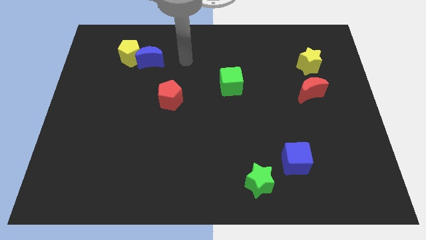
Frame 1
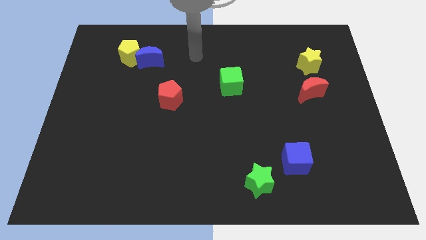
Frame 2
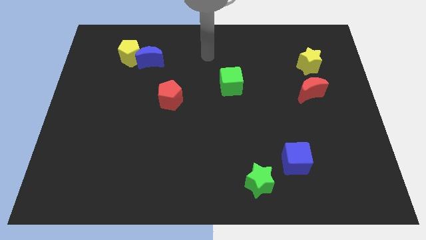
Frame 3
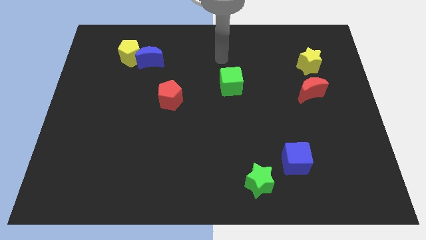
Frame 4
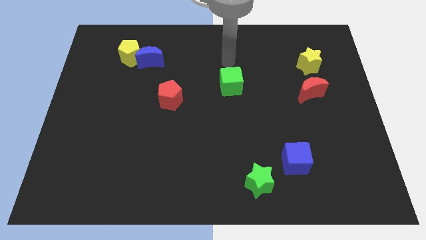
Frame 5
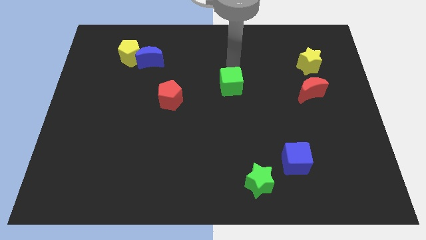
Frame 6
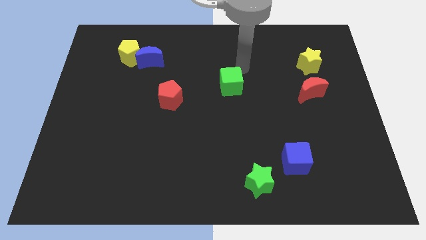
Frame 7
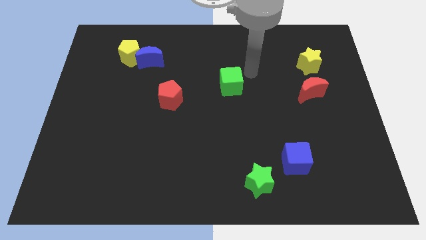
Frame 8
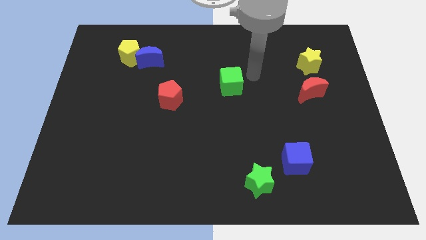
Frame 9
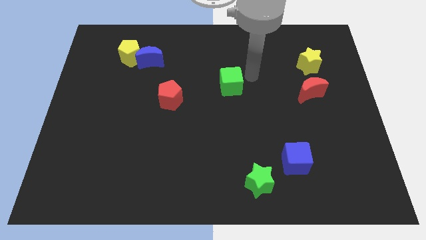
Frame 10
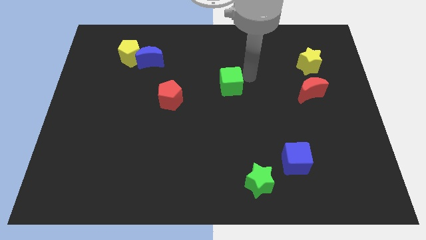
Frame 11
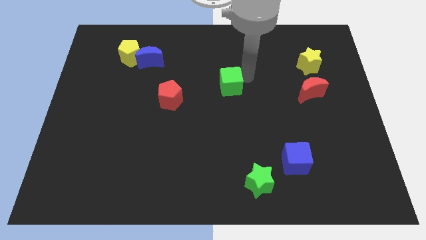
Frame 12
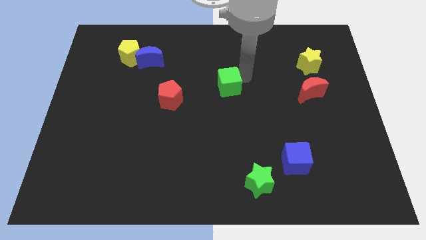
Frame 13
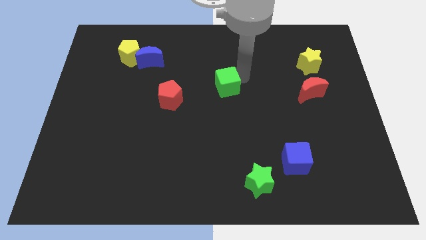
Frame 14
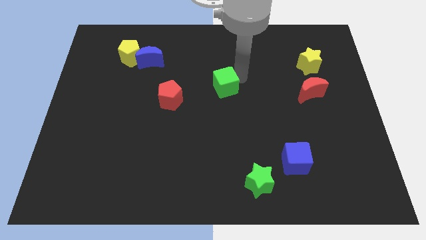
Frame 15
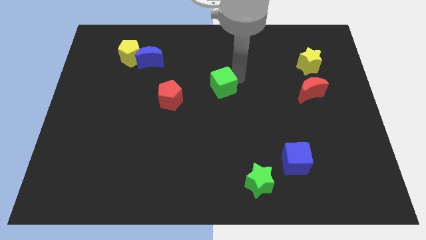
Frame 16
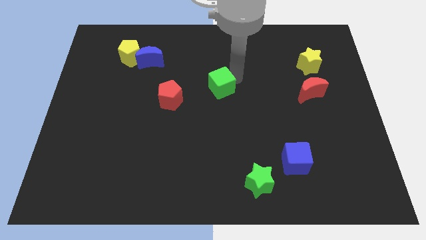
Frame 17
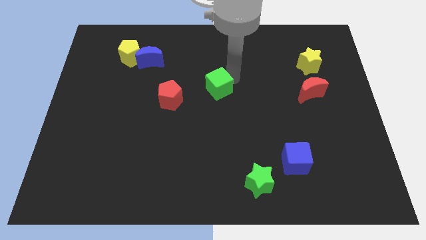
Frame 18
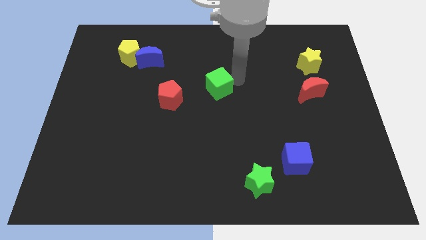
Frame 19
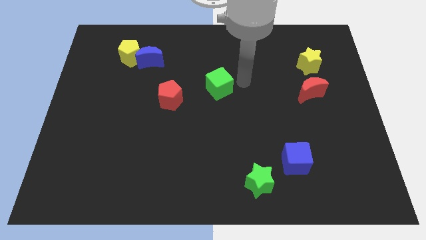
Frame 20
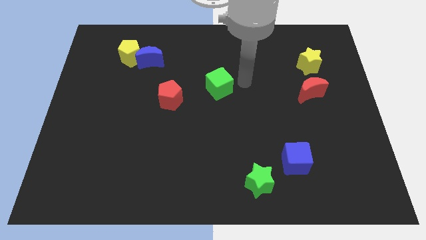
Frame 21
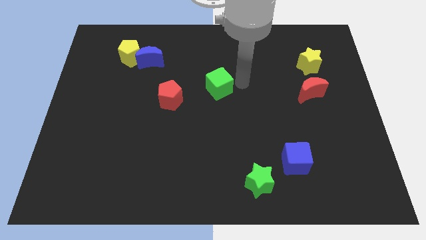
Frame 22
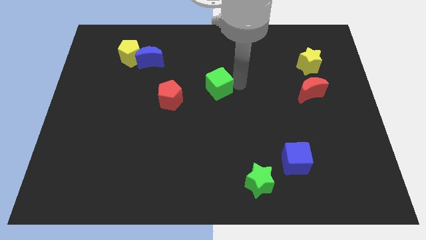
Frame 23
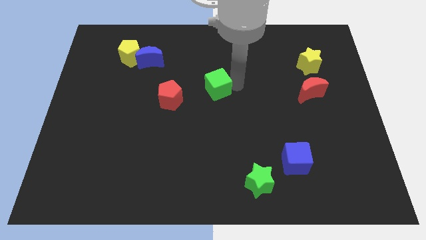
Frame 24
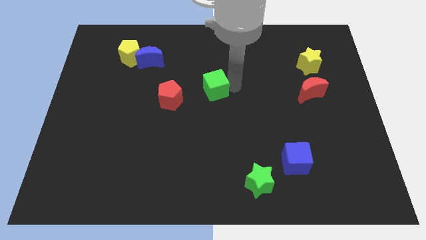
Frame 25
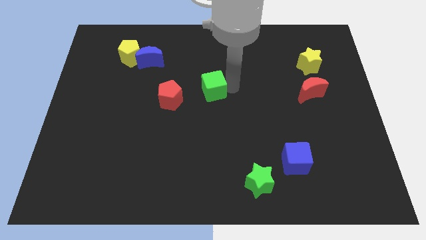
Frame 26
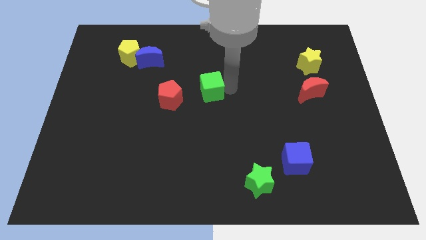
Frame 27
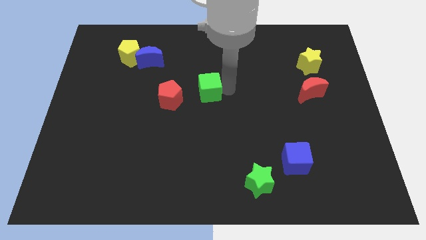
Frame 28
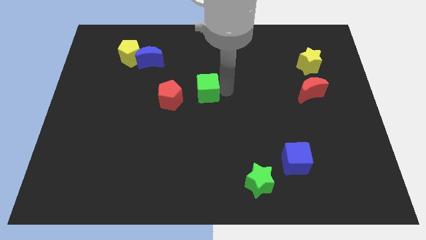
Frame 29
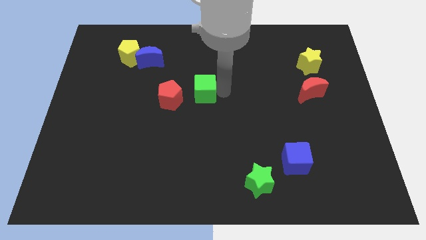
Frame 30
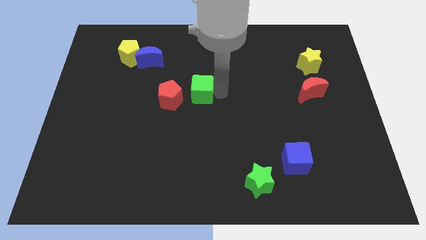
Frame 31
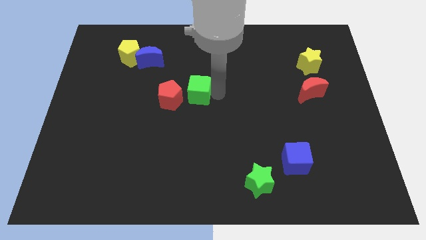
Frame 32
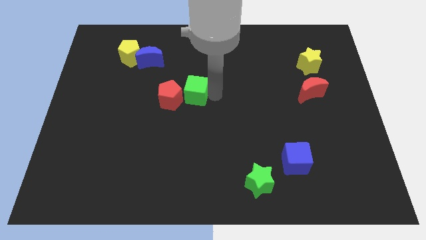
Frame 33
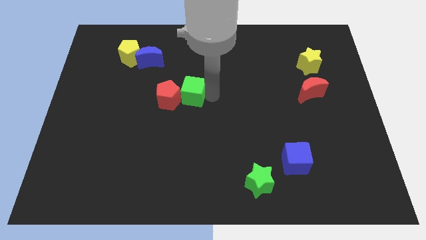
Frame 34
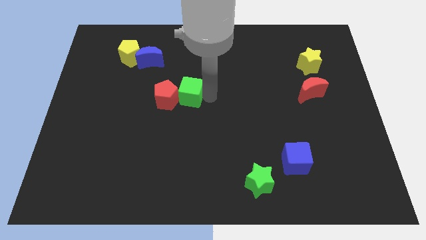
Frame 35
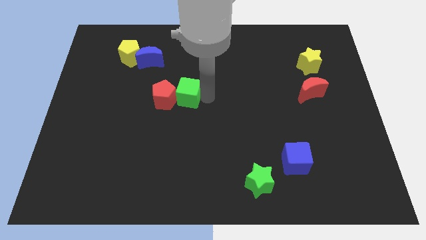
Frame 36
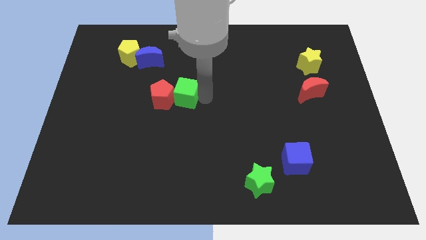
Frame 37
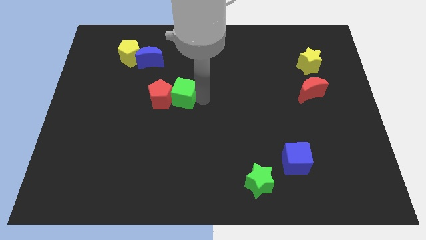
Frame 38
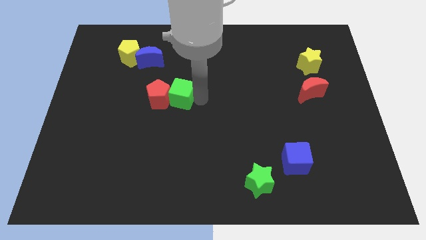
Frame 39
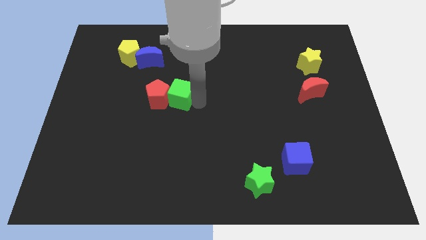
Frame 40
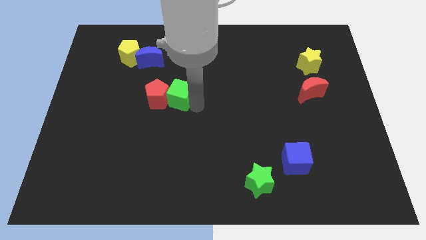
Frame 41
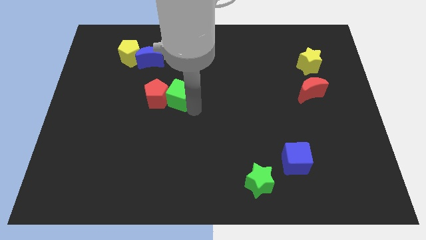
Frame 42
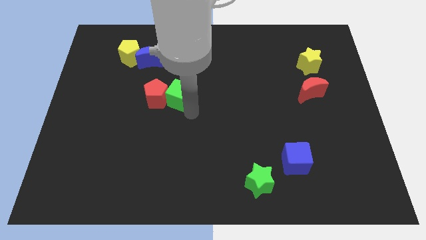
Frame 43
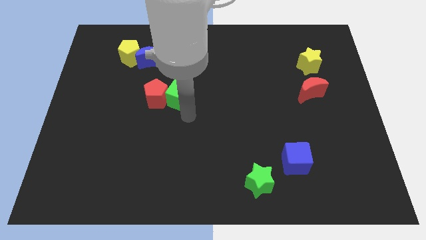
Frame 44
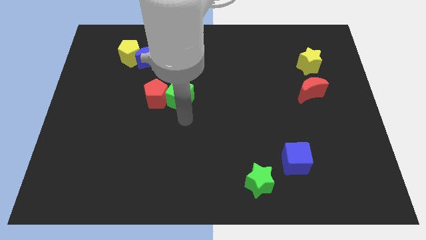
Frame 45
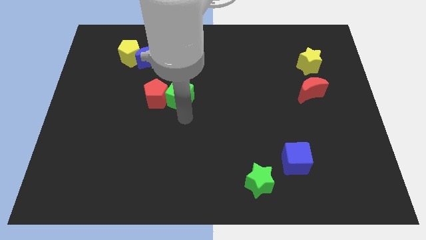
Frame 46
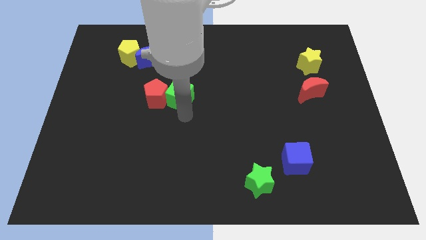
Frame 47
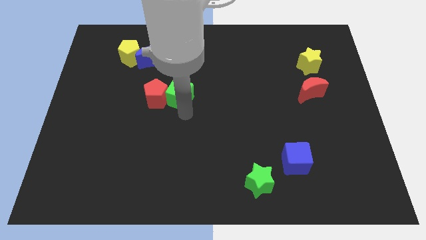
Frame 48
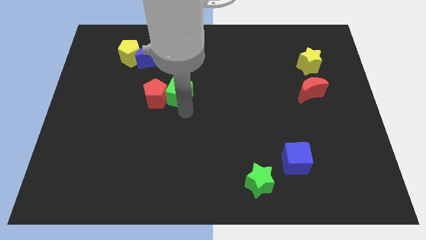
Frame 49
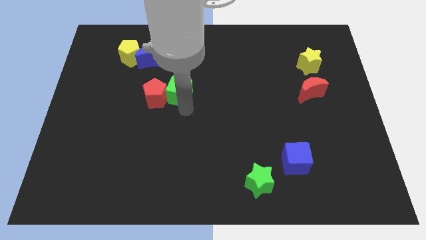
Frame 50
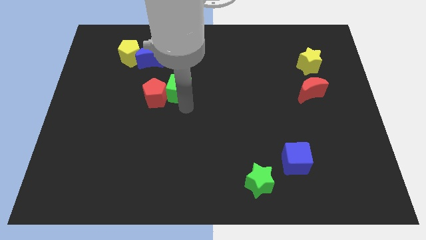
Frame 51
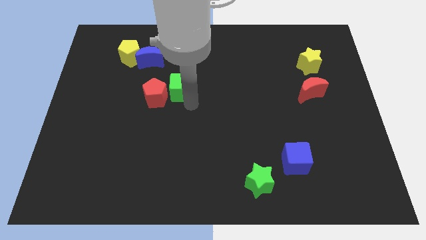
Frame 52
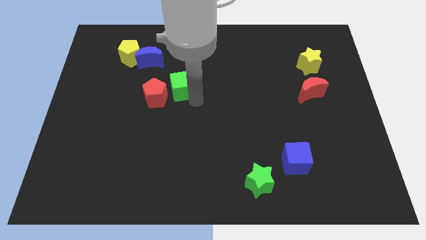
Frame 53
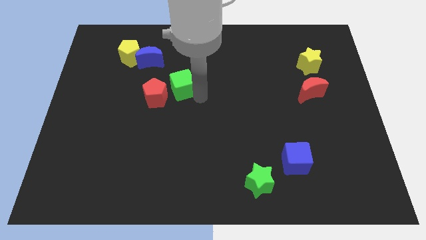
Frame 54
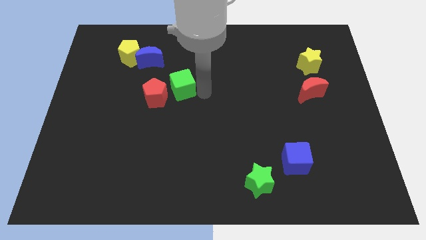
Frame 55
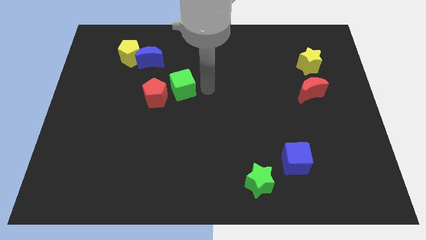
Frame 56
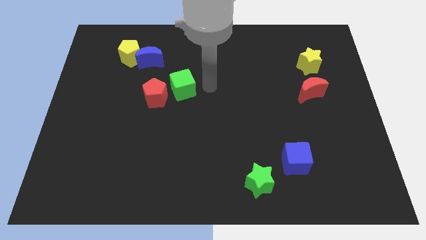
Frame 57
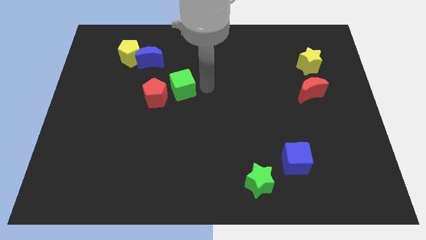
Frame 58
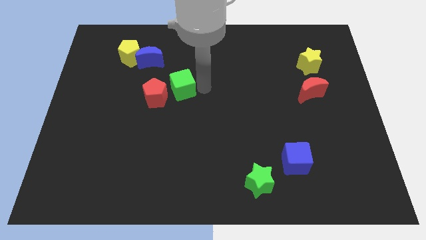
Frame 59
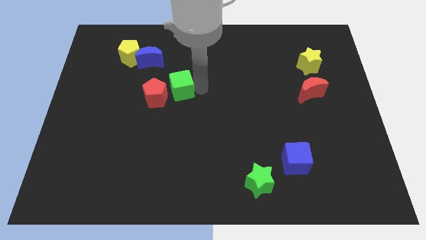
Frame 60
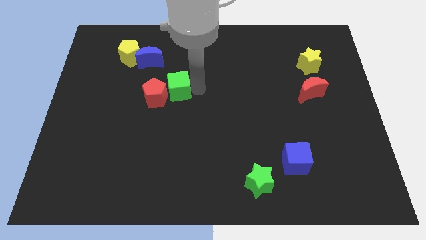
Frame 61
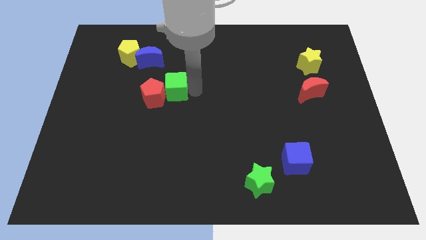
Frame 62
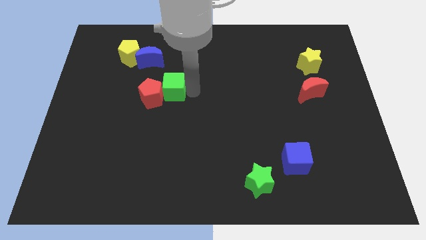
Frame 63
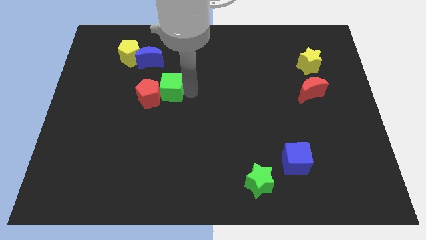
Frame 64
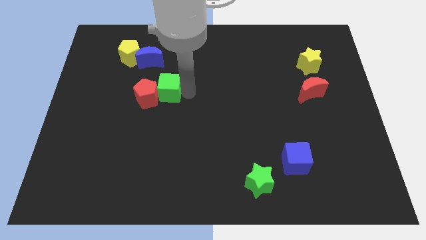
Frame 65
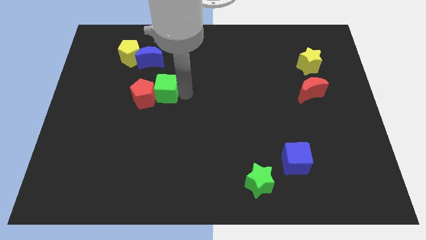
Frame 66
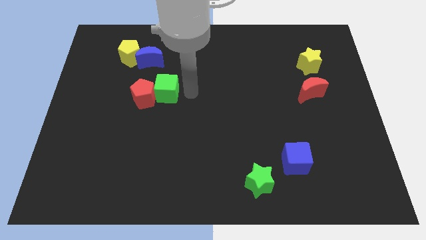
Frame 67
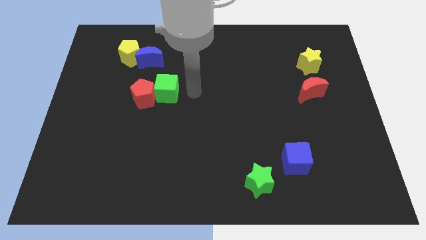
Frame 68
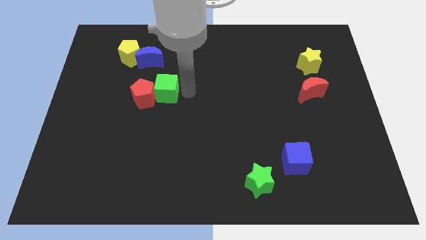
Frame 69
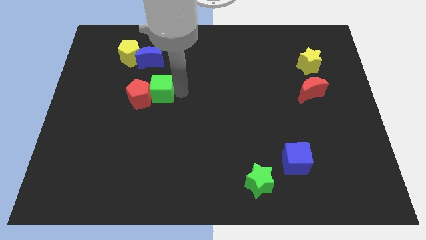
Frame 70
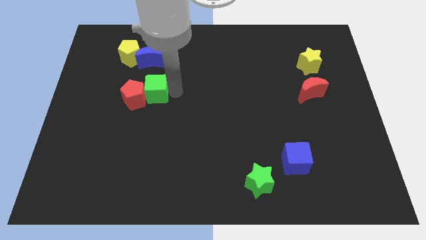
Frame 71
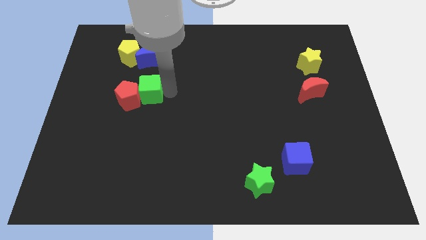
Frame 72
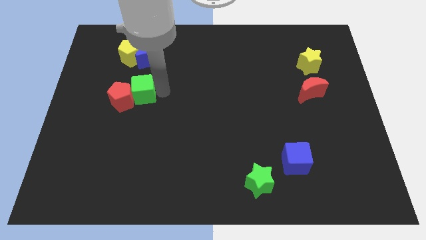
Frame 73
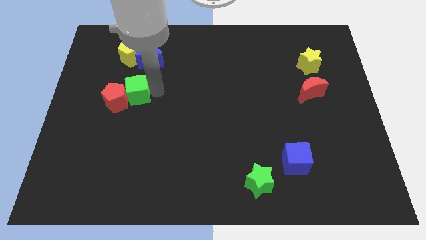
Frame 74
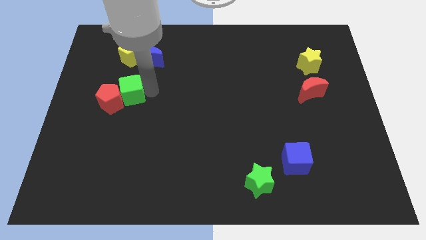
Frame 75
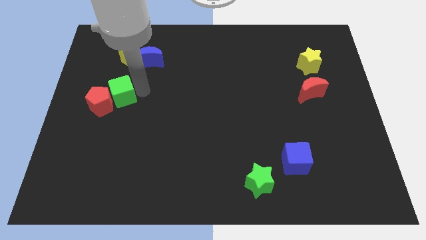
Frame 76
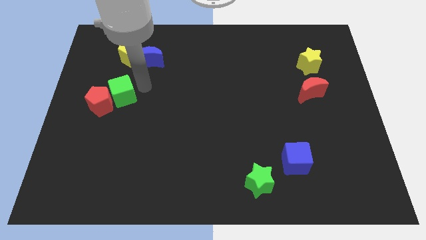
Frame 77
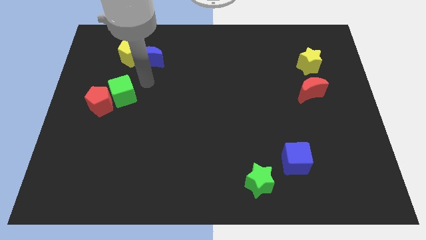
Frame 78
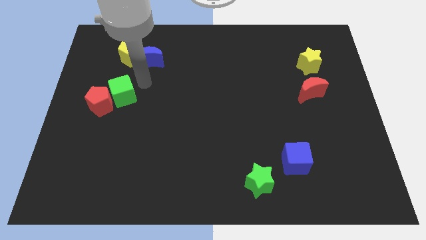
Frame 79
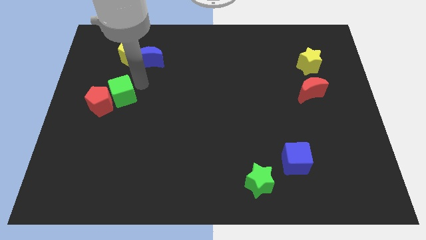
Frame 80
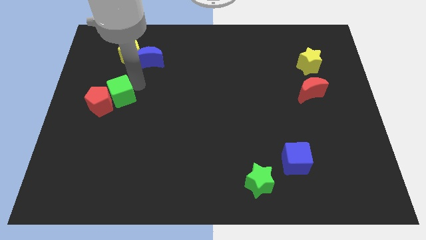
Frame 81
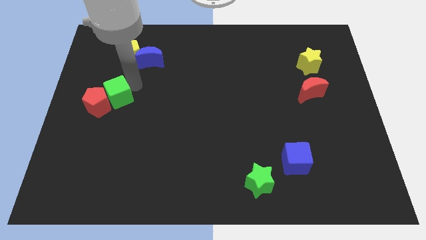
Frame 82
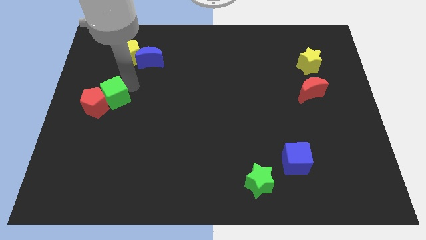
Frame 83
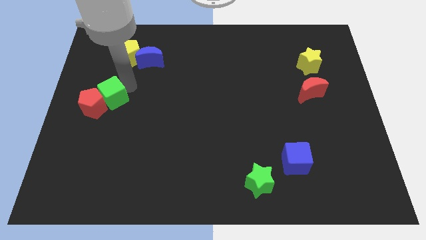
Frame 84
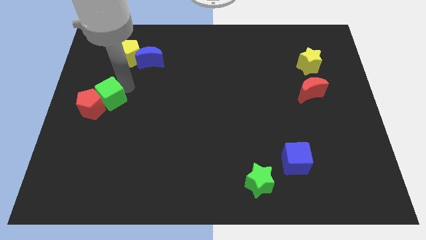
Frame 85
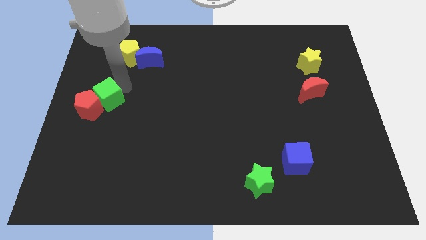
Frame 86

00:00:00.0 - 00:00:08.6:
push the green cube to the center left
